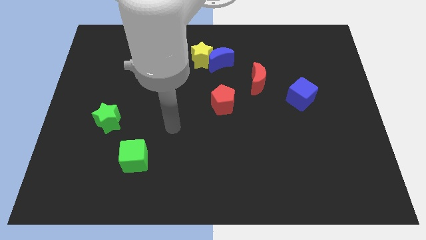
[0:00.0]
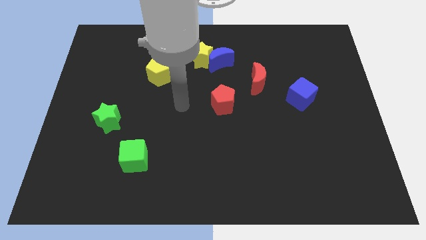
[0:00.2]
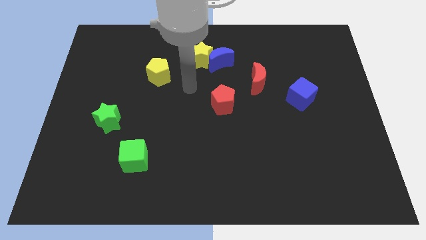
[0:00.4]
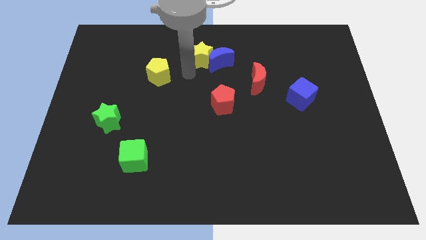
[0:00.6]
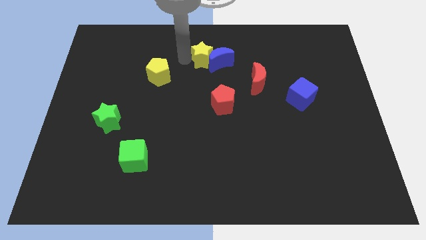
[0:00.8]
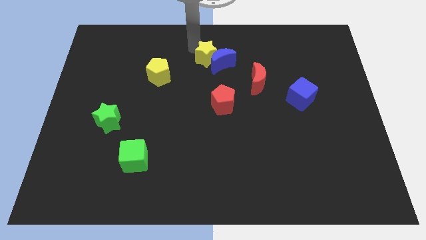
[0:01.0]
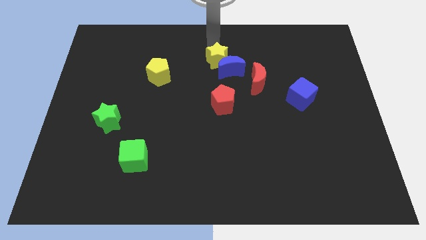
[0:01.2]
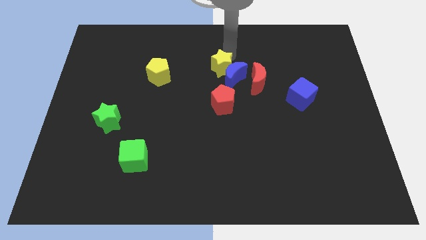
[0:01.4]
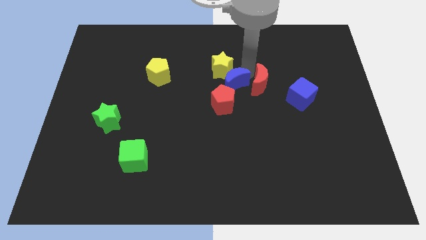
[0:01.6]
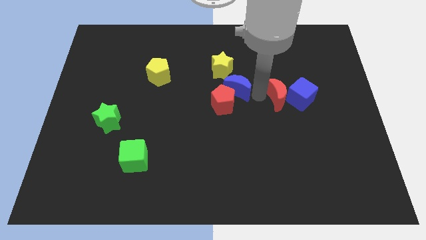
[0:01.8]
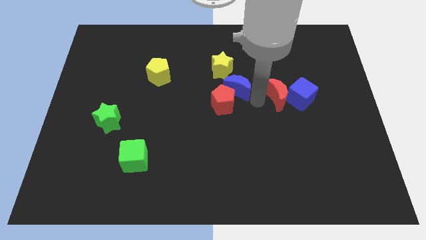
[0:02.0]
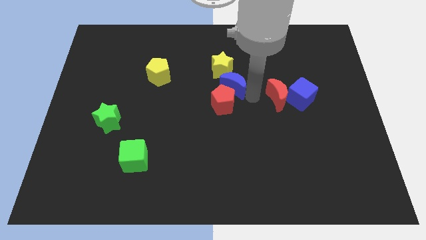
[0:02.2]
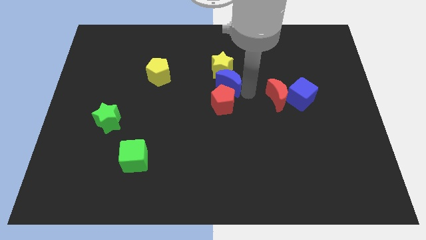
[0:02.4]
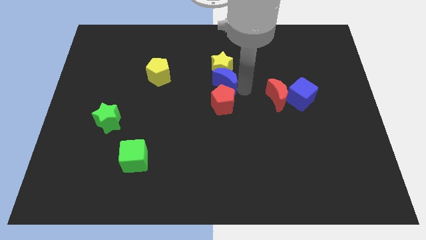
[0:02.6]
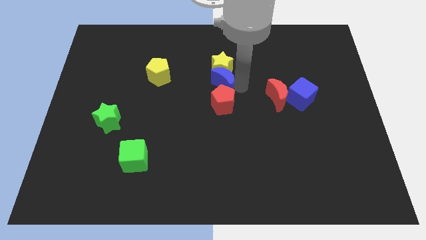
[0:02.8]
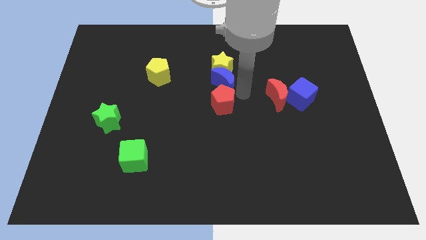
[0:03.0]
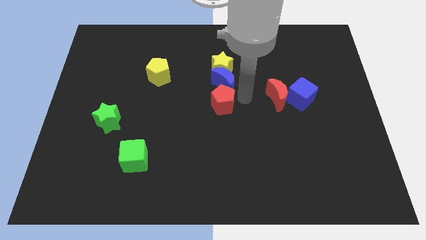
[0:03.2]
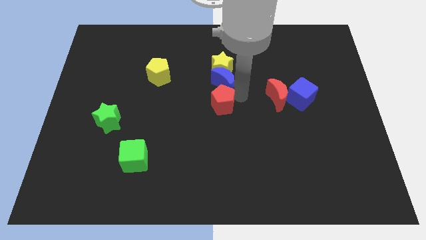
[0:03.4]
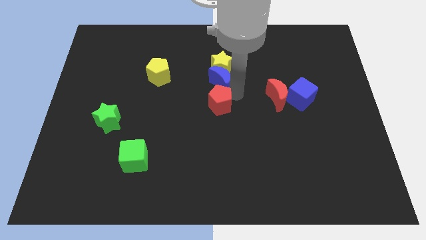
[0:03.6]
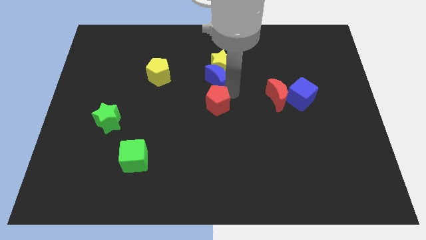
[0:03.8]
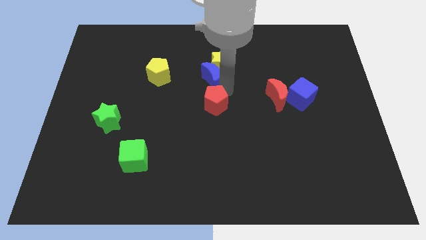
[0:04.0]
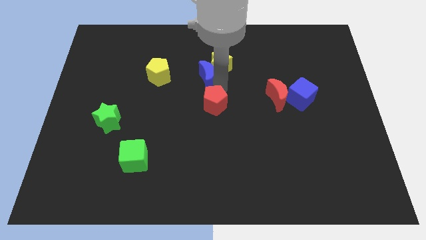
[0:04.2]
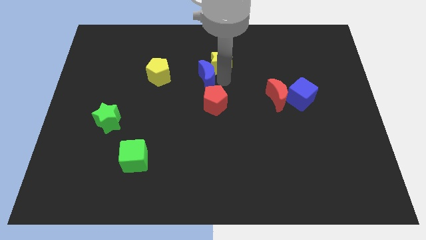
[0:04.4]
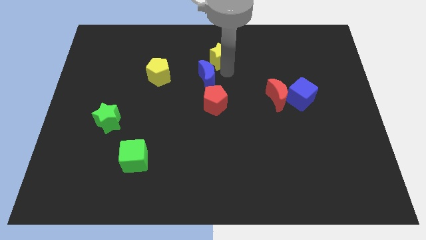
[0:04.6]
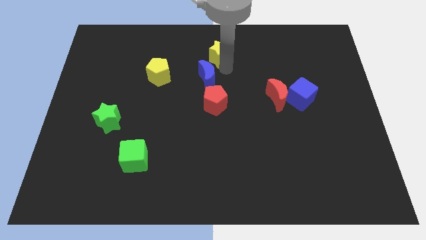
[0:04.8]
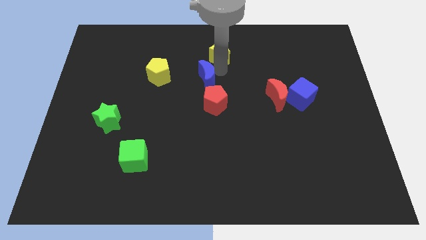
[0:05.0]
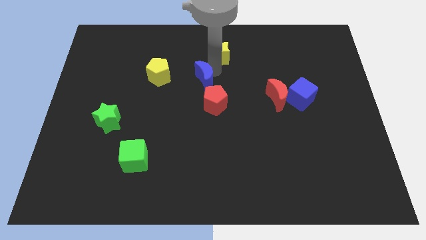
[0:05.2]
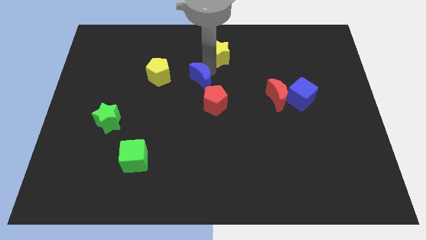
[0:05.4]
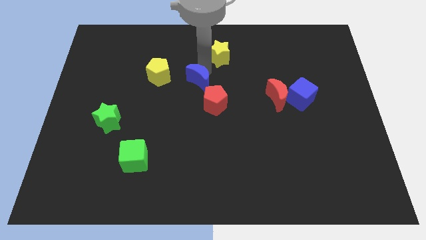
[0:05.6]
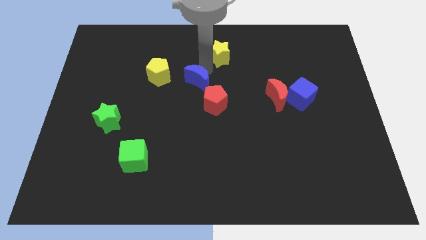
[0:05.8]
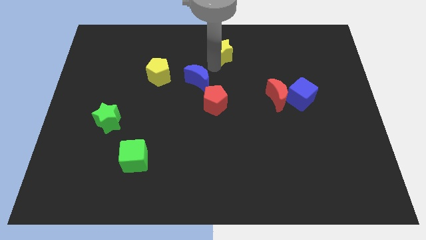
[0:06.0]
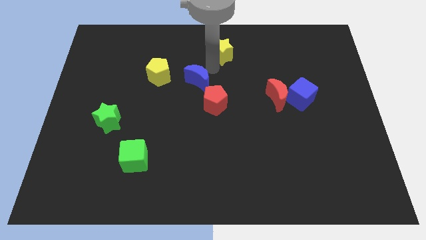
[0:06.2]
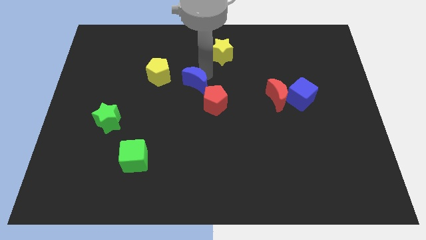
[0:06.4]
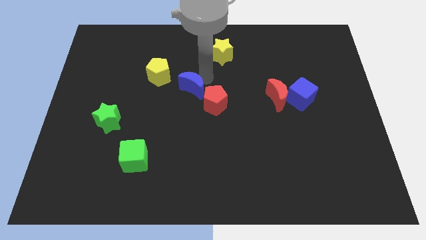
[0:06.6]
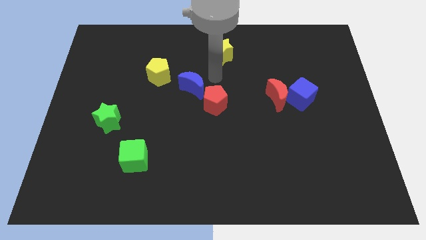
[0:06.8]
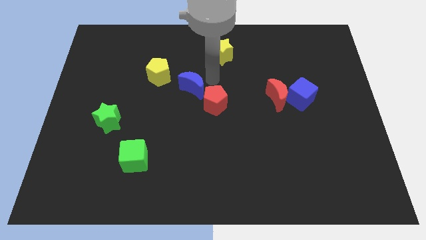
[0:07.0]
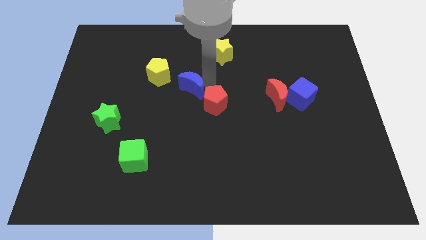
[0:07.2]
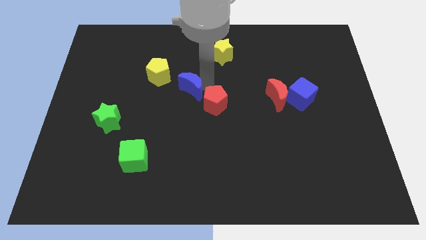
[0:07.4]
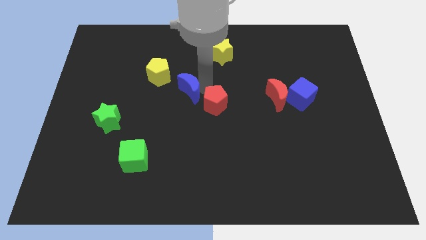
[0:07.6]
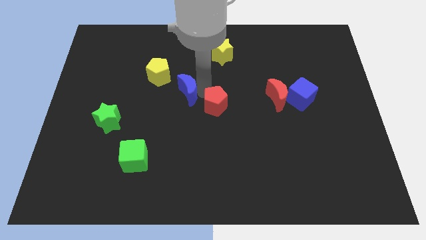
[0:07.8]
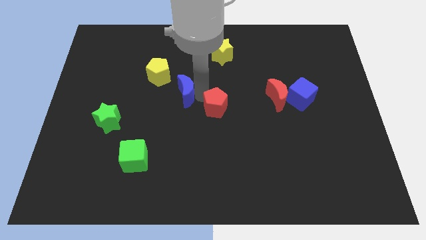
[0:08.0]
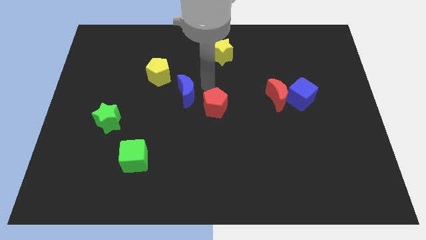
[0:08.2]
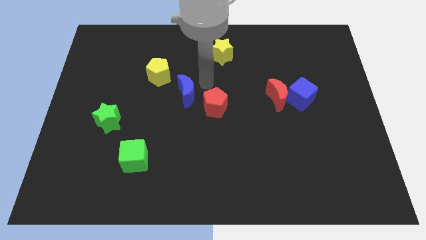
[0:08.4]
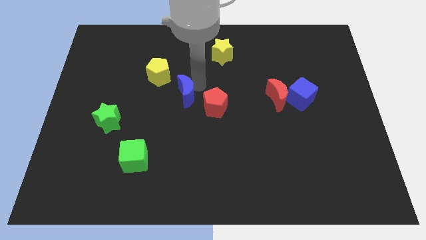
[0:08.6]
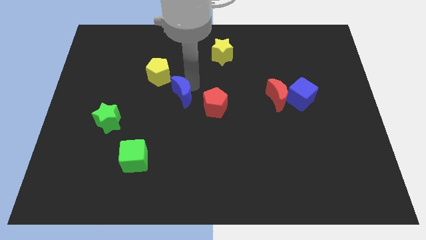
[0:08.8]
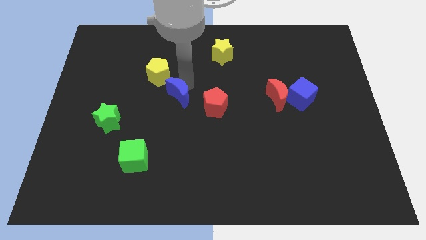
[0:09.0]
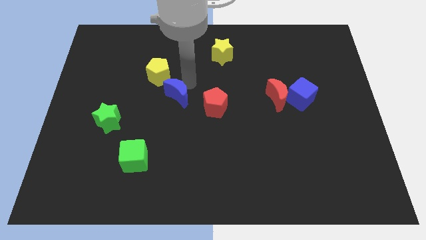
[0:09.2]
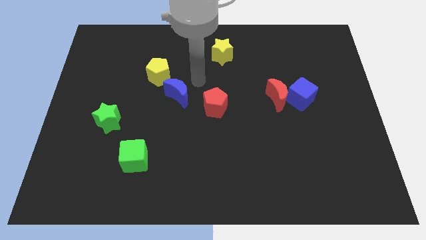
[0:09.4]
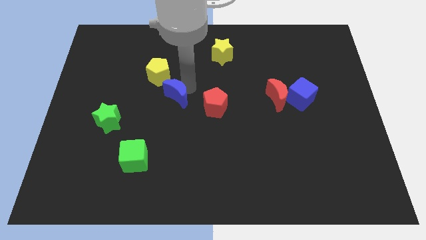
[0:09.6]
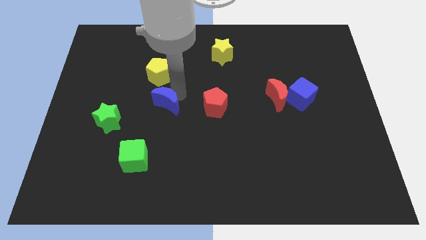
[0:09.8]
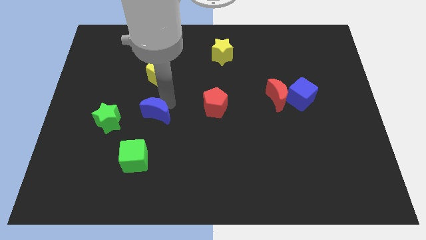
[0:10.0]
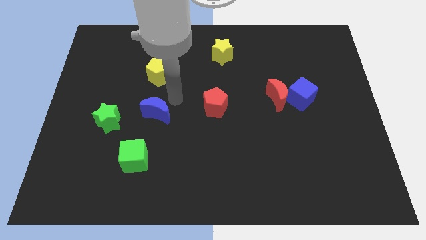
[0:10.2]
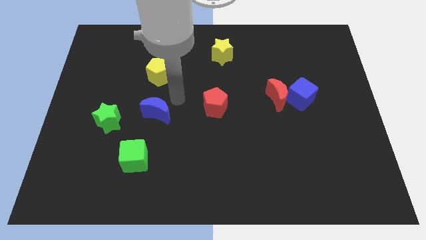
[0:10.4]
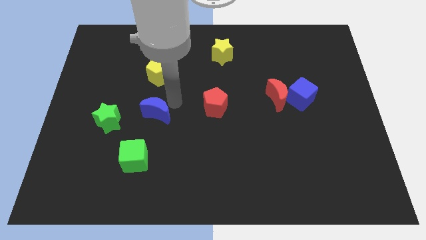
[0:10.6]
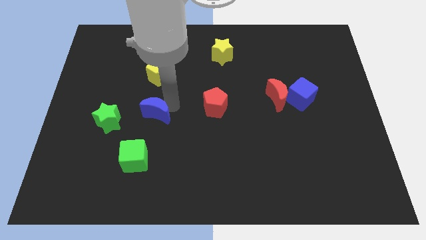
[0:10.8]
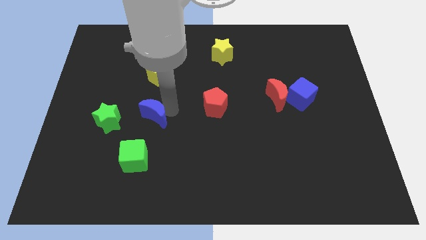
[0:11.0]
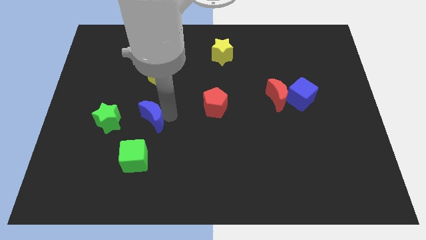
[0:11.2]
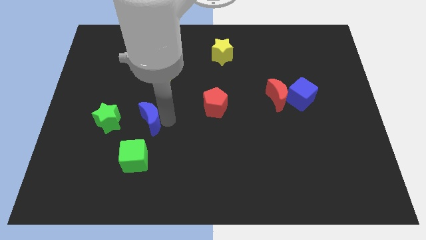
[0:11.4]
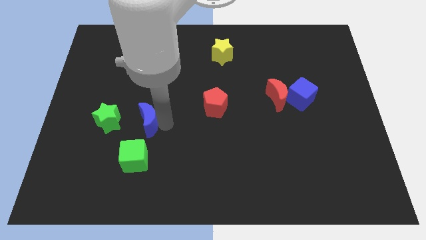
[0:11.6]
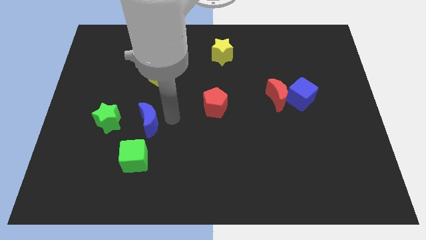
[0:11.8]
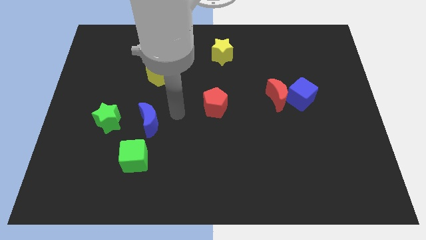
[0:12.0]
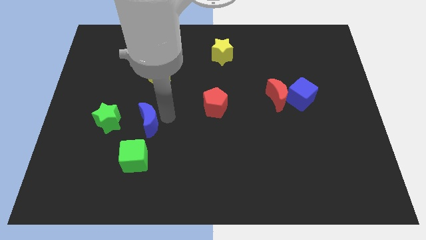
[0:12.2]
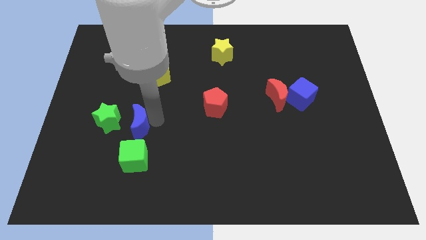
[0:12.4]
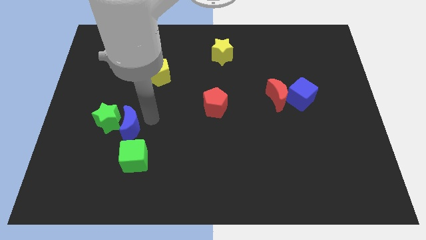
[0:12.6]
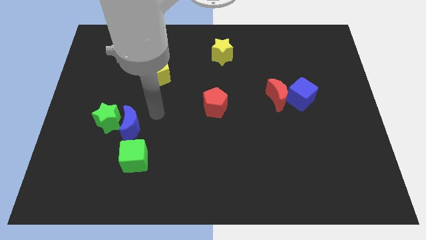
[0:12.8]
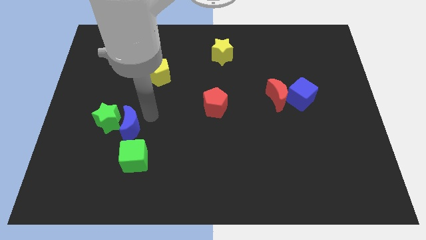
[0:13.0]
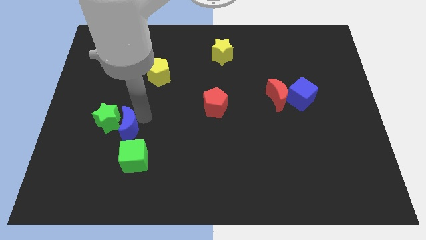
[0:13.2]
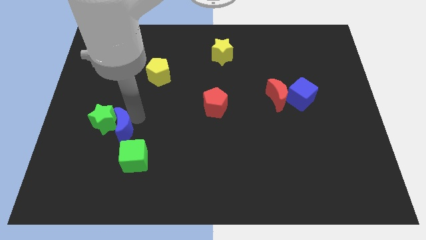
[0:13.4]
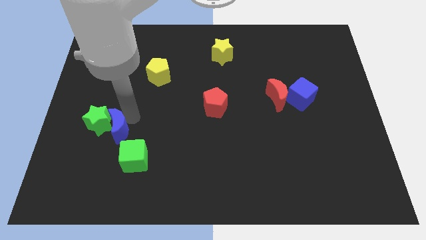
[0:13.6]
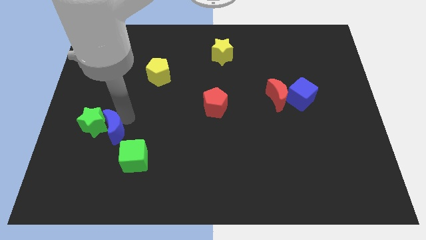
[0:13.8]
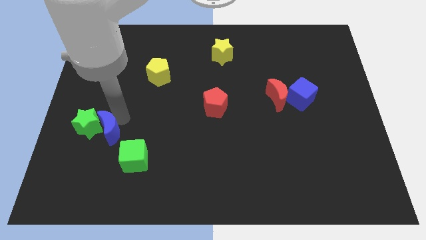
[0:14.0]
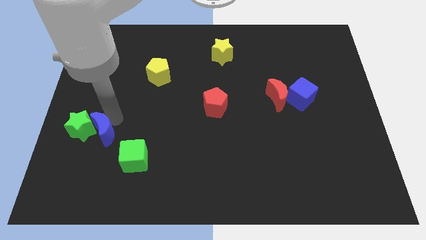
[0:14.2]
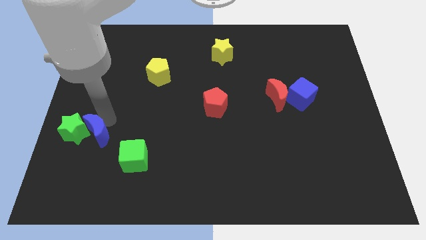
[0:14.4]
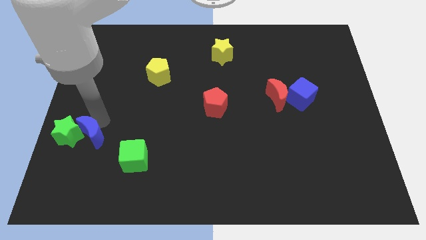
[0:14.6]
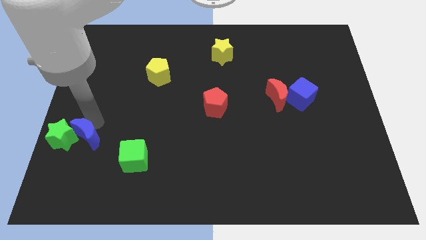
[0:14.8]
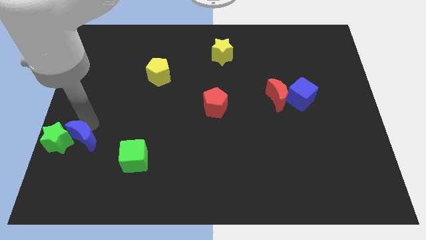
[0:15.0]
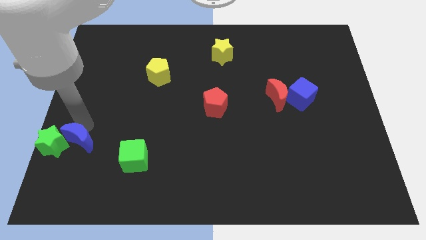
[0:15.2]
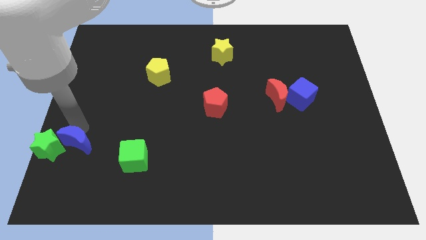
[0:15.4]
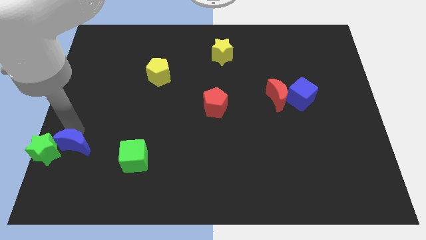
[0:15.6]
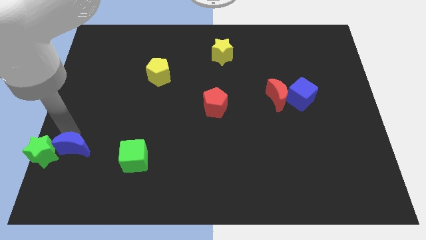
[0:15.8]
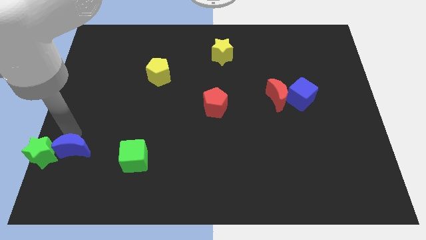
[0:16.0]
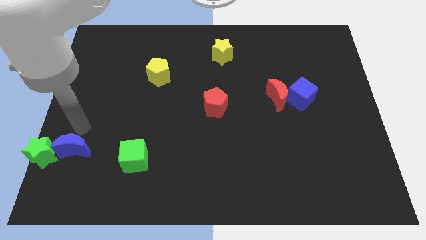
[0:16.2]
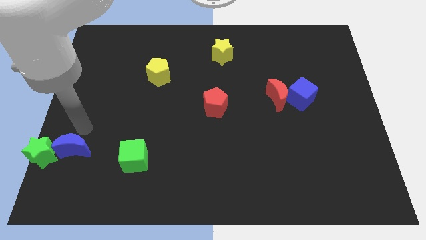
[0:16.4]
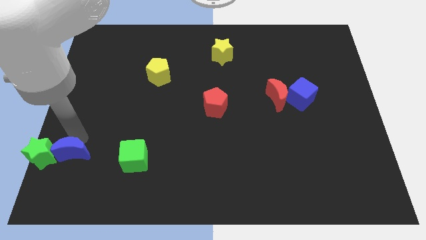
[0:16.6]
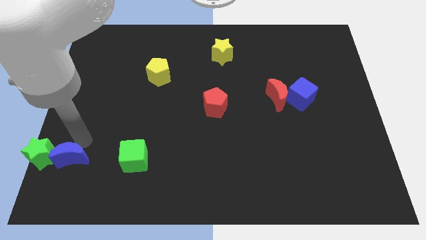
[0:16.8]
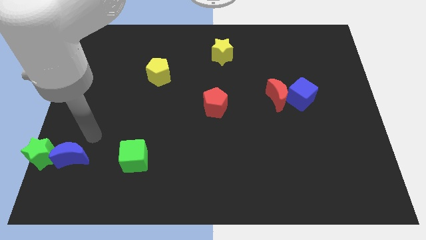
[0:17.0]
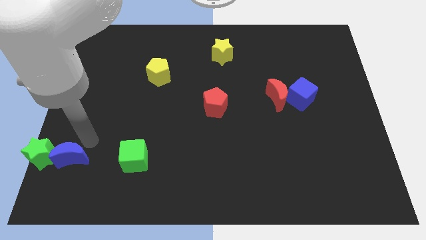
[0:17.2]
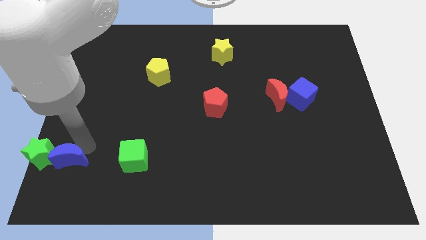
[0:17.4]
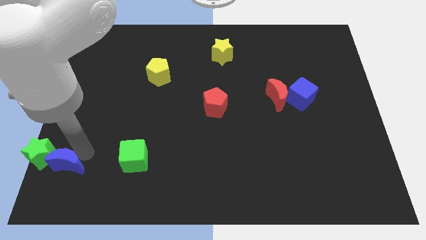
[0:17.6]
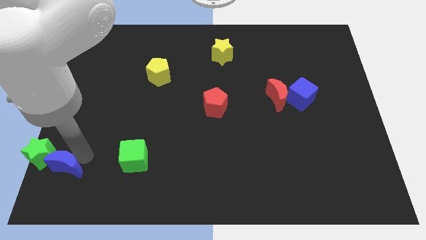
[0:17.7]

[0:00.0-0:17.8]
slide the blue moon to the bottom left of the board
